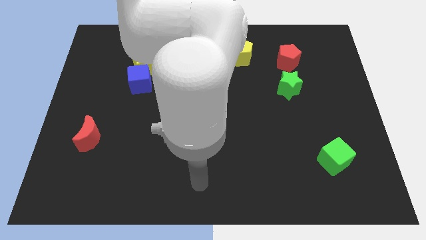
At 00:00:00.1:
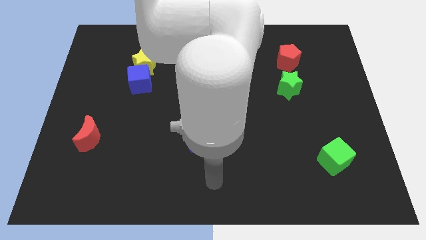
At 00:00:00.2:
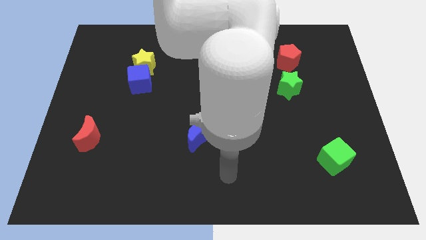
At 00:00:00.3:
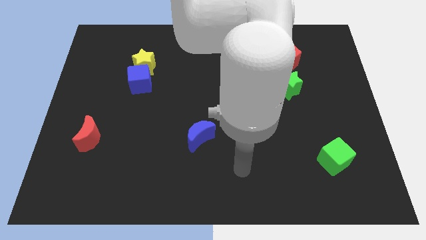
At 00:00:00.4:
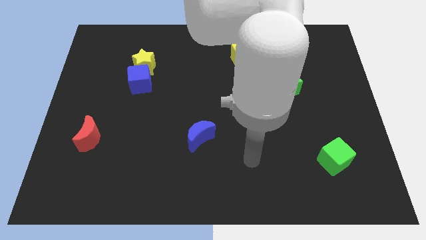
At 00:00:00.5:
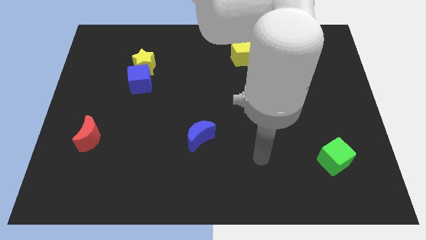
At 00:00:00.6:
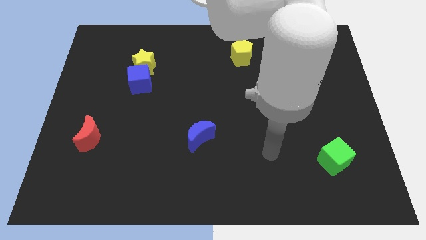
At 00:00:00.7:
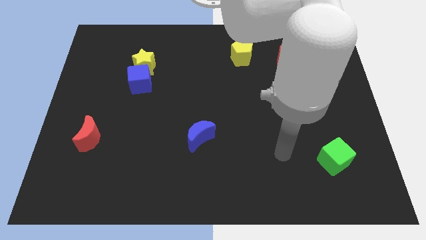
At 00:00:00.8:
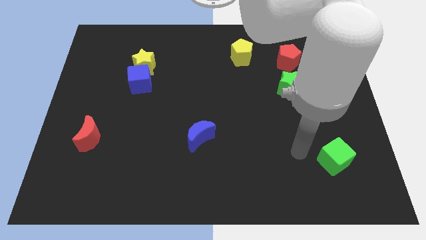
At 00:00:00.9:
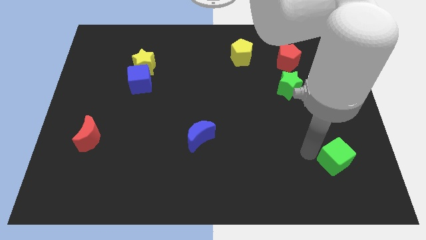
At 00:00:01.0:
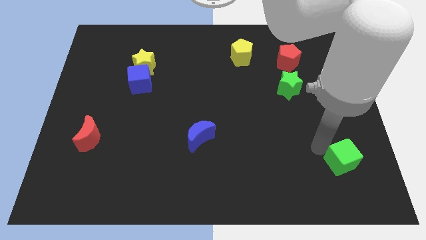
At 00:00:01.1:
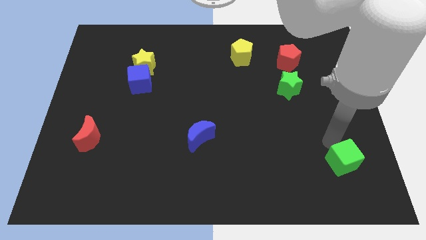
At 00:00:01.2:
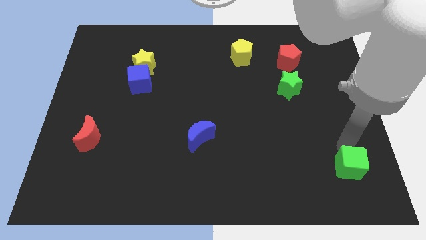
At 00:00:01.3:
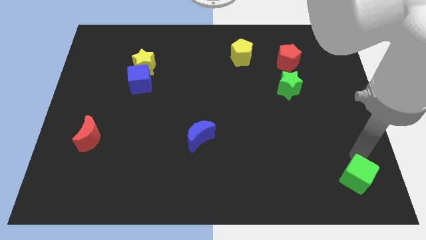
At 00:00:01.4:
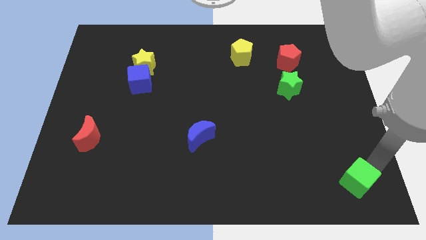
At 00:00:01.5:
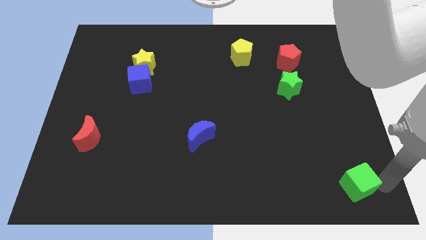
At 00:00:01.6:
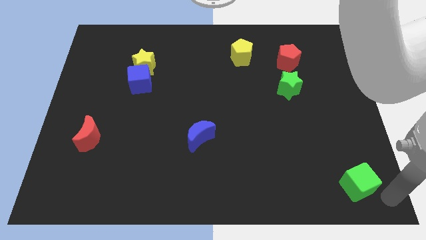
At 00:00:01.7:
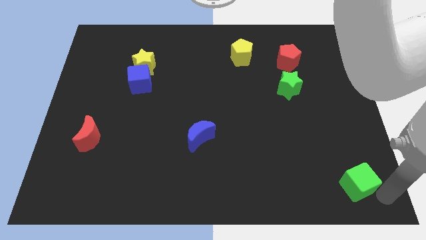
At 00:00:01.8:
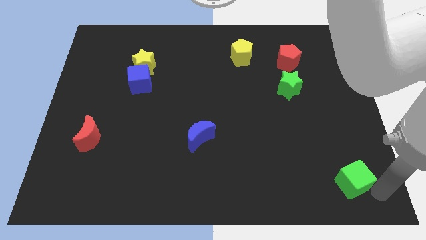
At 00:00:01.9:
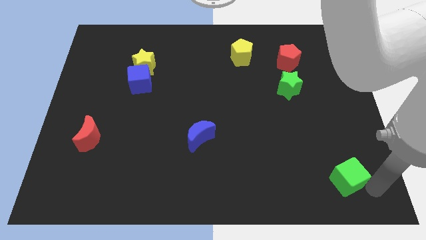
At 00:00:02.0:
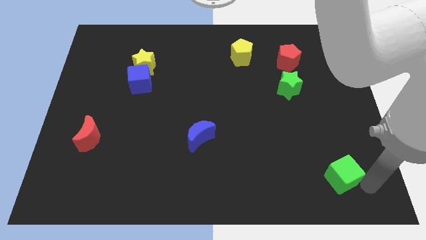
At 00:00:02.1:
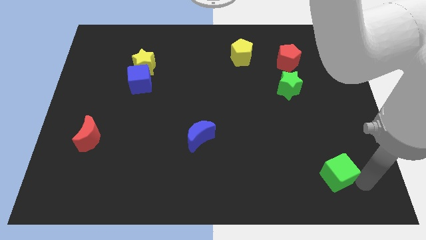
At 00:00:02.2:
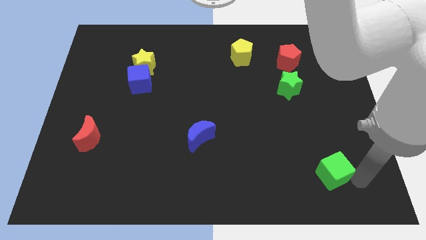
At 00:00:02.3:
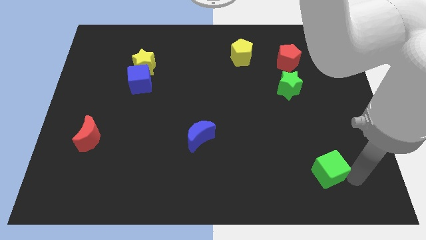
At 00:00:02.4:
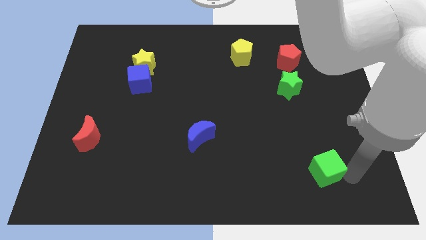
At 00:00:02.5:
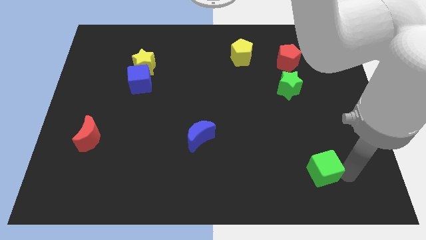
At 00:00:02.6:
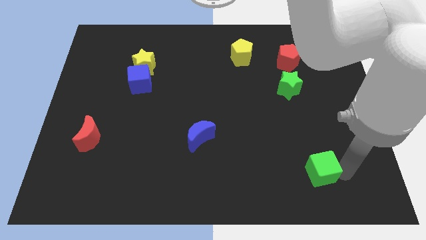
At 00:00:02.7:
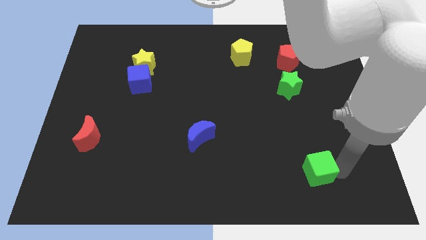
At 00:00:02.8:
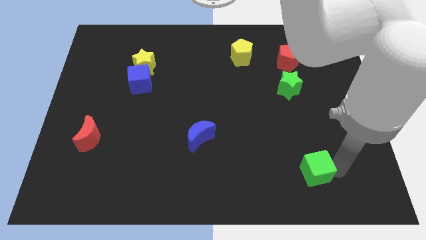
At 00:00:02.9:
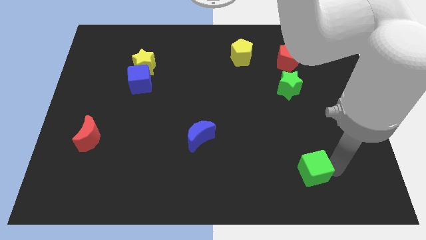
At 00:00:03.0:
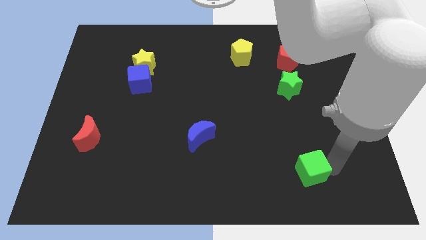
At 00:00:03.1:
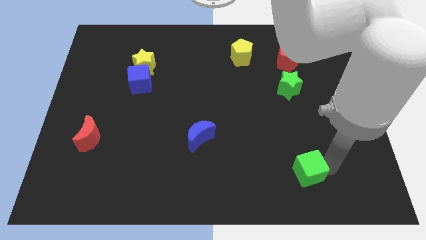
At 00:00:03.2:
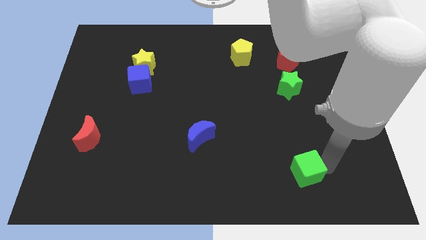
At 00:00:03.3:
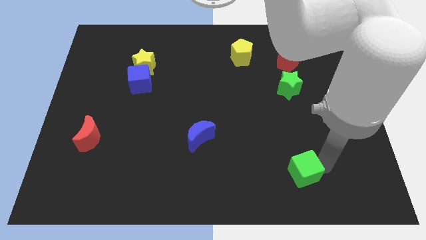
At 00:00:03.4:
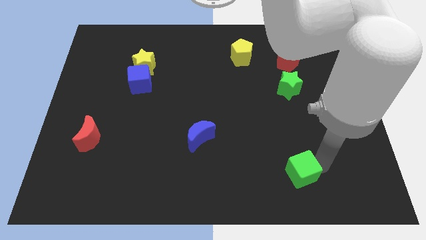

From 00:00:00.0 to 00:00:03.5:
move the green cube left somewhat

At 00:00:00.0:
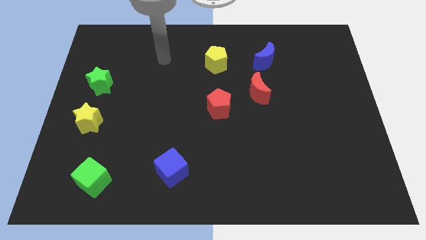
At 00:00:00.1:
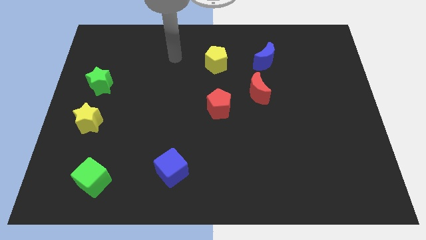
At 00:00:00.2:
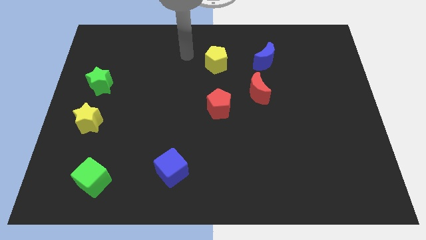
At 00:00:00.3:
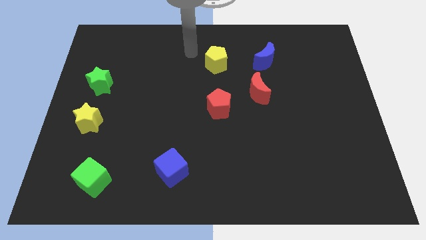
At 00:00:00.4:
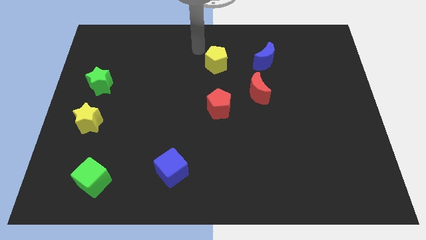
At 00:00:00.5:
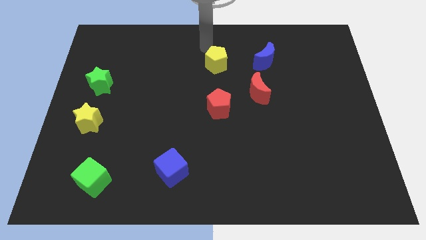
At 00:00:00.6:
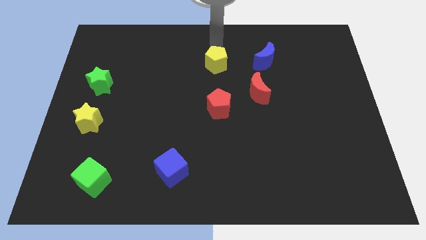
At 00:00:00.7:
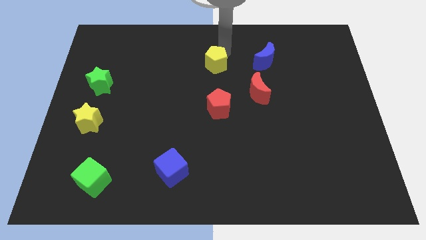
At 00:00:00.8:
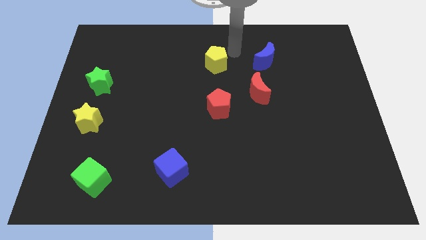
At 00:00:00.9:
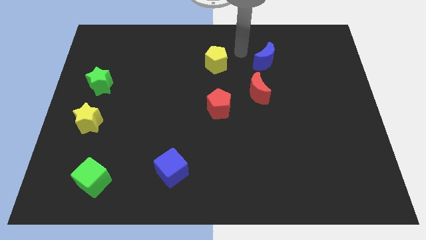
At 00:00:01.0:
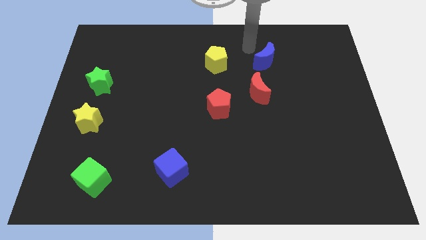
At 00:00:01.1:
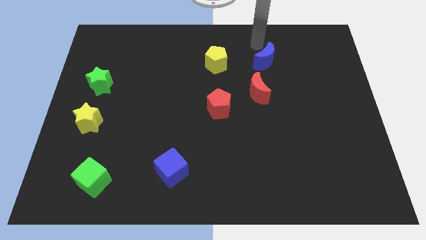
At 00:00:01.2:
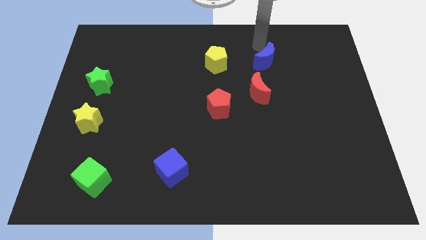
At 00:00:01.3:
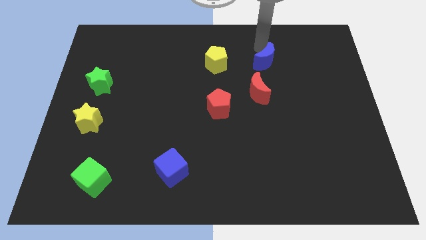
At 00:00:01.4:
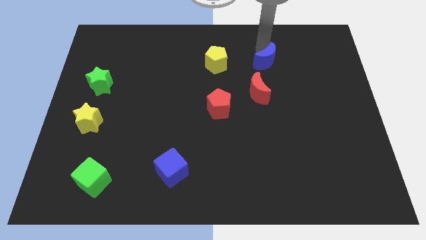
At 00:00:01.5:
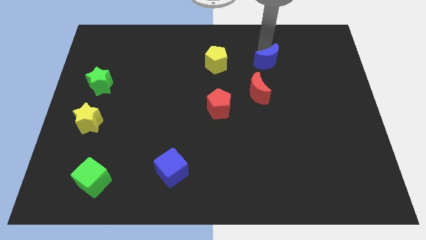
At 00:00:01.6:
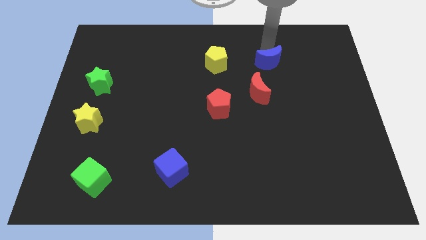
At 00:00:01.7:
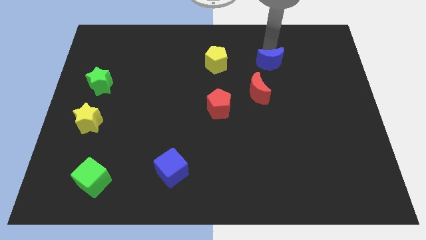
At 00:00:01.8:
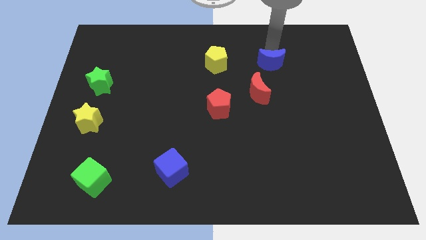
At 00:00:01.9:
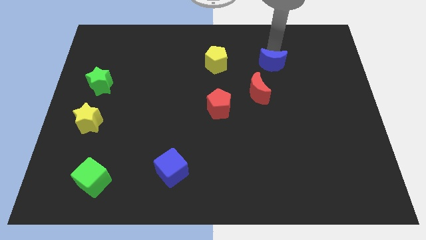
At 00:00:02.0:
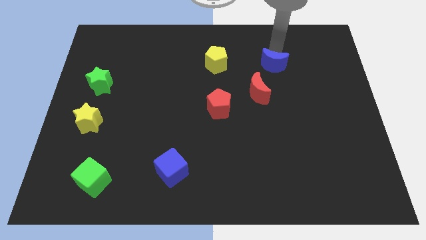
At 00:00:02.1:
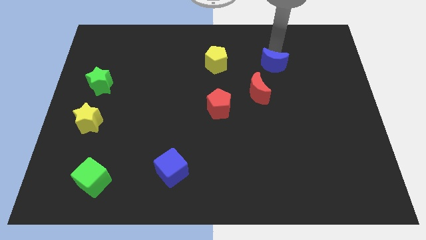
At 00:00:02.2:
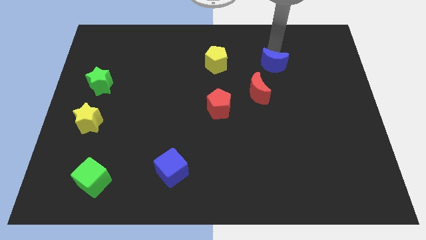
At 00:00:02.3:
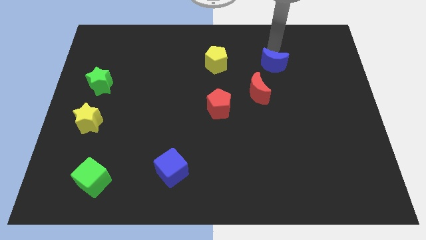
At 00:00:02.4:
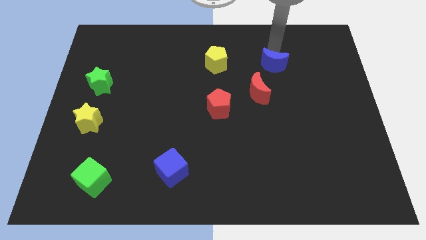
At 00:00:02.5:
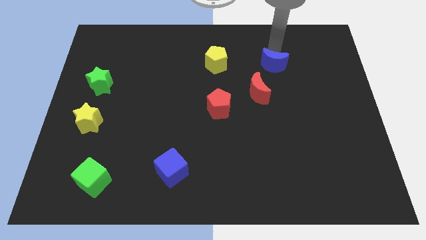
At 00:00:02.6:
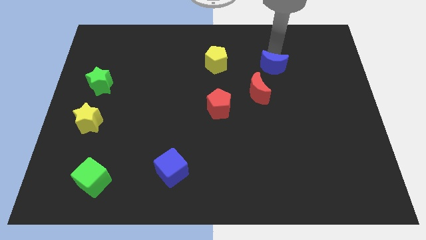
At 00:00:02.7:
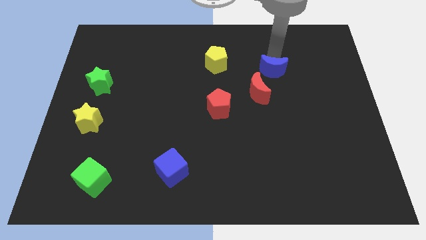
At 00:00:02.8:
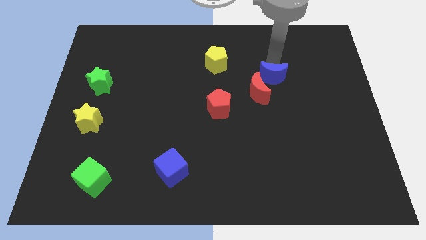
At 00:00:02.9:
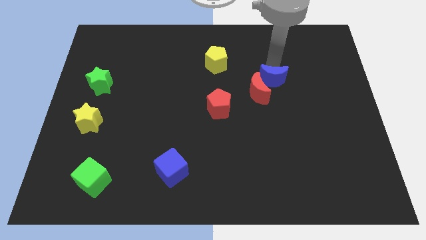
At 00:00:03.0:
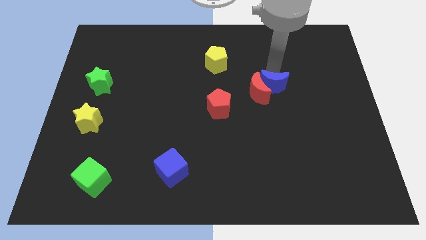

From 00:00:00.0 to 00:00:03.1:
slightly push the blue moon down

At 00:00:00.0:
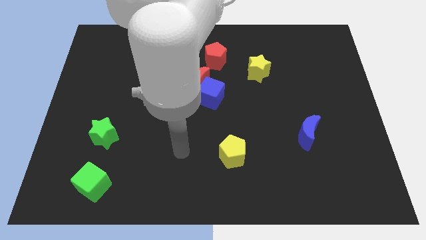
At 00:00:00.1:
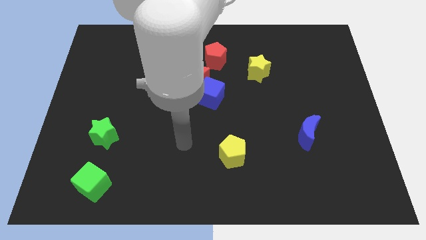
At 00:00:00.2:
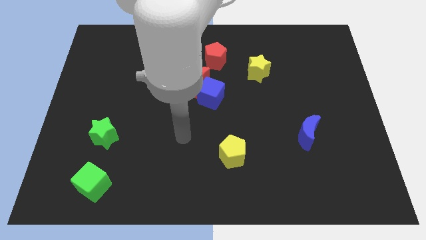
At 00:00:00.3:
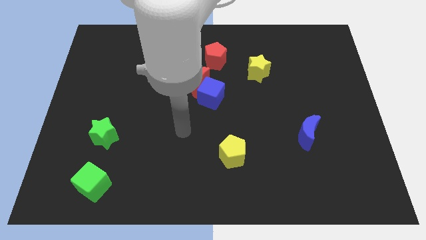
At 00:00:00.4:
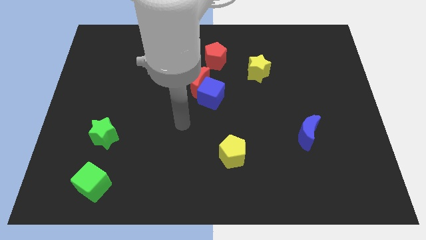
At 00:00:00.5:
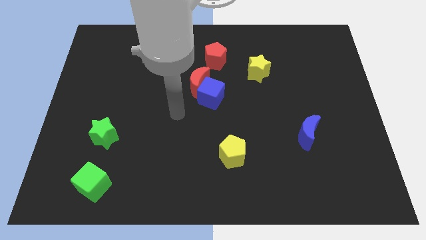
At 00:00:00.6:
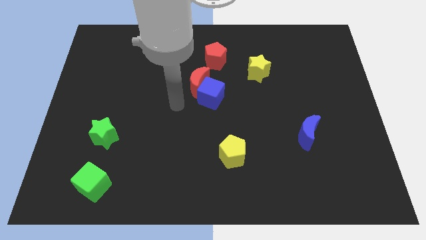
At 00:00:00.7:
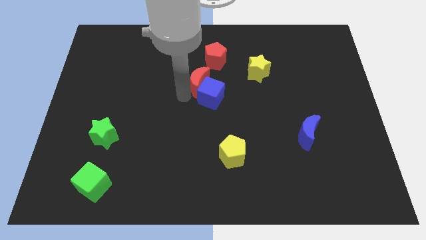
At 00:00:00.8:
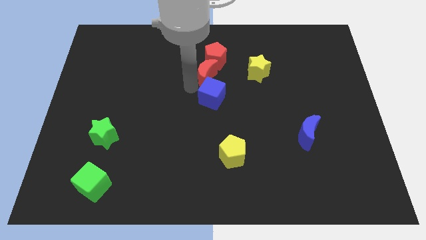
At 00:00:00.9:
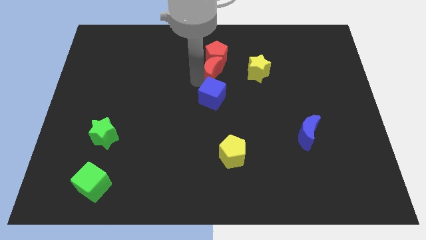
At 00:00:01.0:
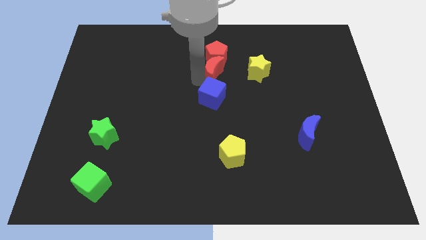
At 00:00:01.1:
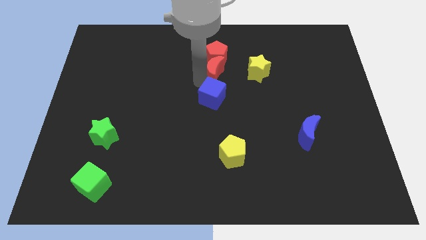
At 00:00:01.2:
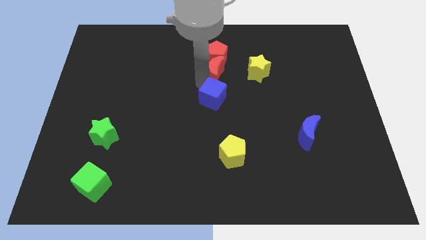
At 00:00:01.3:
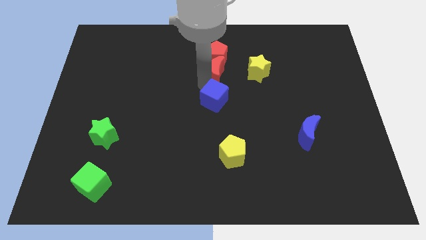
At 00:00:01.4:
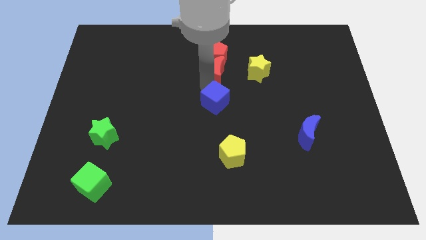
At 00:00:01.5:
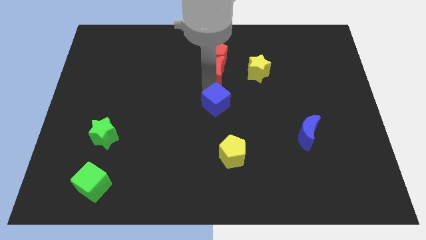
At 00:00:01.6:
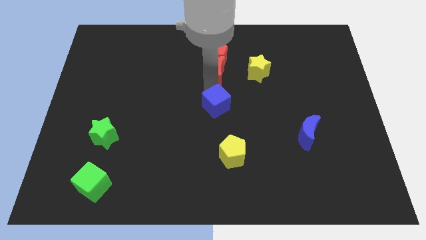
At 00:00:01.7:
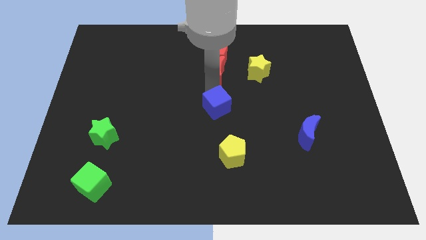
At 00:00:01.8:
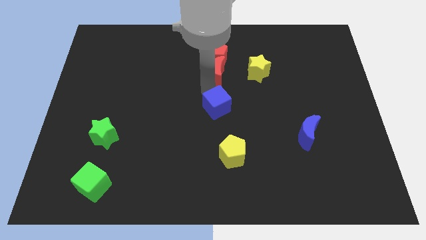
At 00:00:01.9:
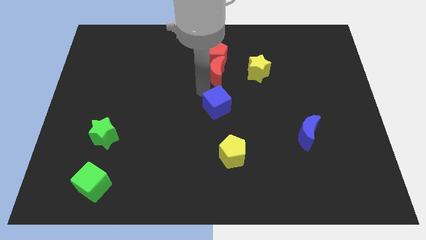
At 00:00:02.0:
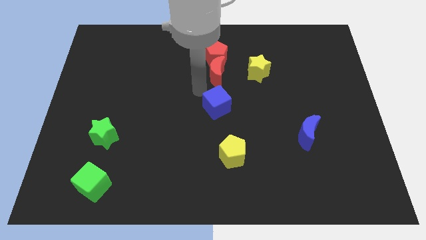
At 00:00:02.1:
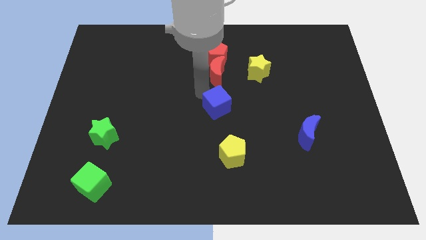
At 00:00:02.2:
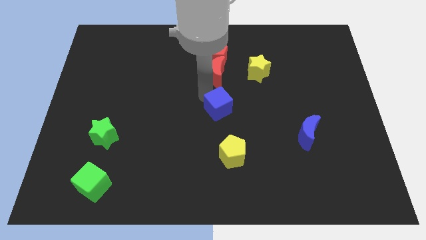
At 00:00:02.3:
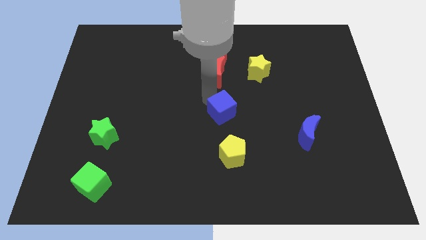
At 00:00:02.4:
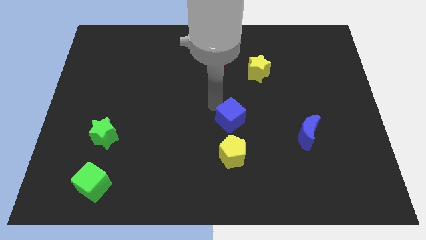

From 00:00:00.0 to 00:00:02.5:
slightly push the blue cube down and right diagonally
